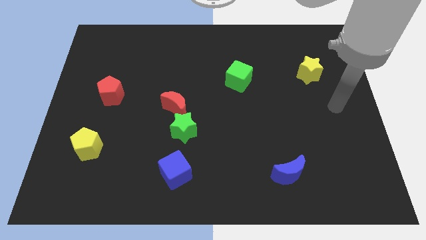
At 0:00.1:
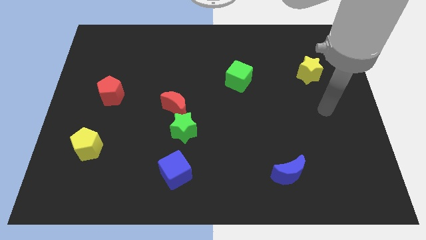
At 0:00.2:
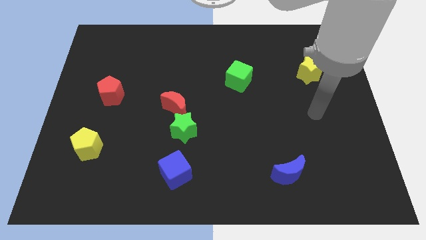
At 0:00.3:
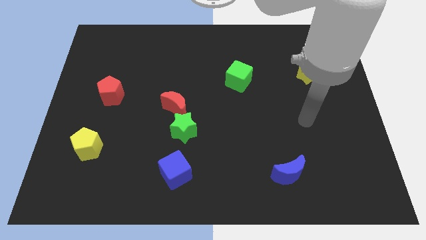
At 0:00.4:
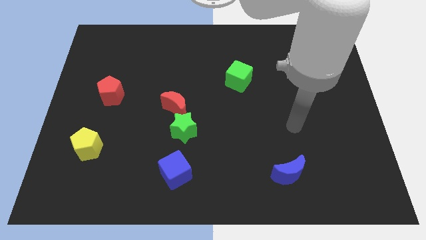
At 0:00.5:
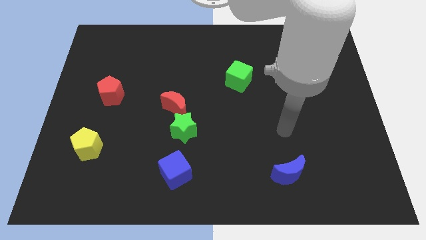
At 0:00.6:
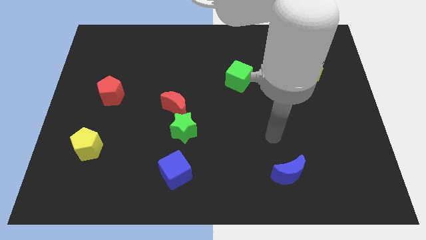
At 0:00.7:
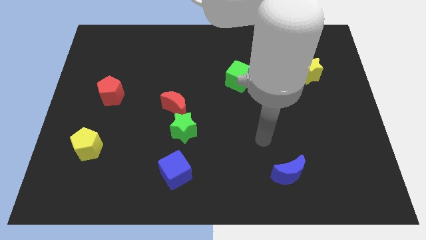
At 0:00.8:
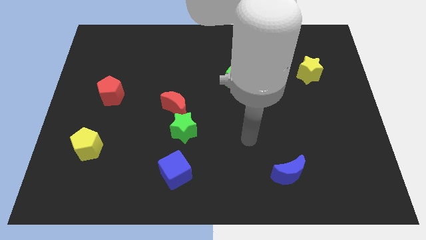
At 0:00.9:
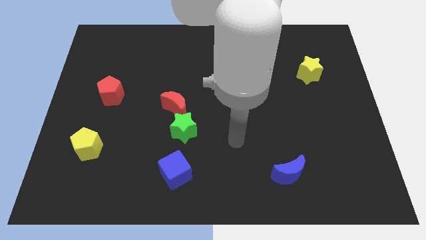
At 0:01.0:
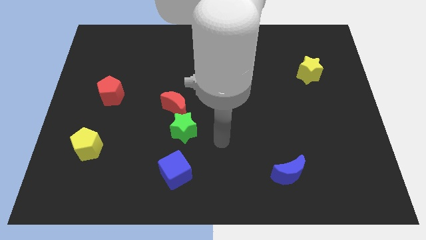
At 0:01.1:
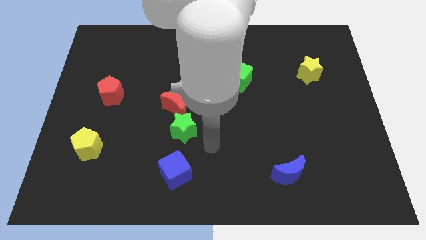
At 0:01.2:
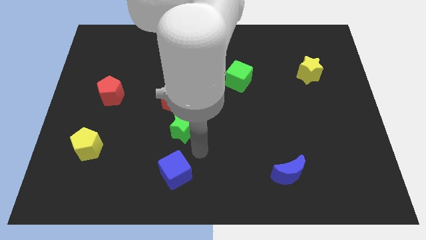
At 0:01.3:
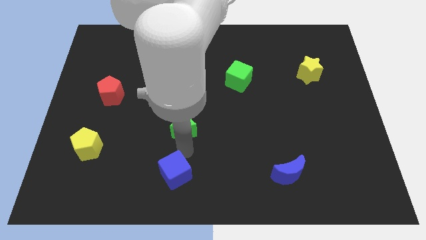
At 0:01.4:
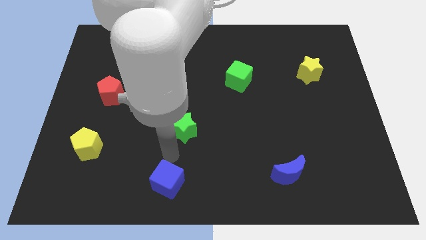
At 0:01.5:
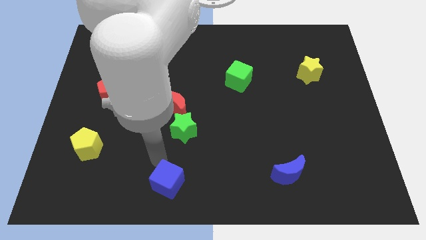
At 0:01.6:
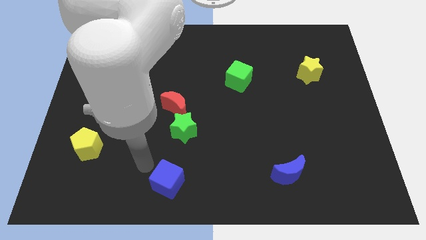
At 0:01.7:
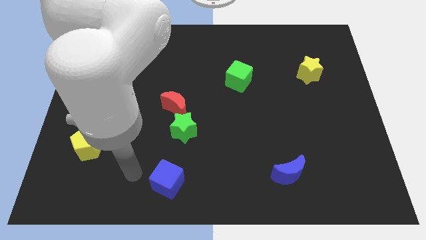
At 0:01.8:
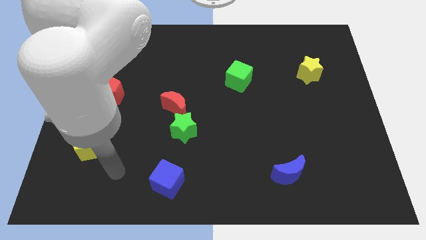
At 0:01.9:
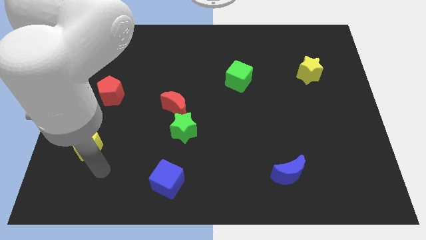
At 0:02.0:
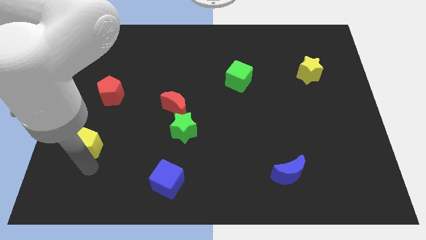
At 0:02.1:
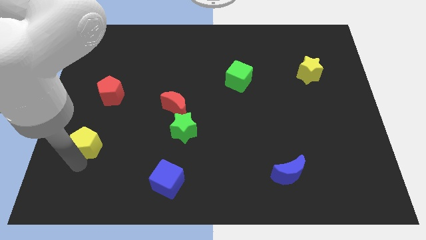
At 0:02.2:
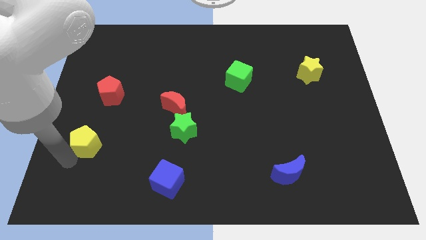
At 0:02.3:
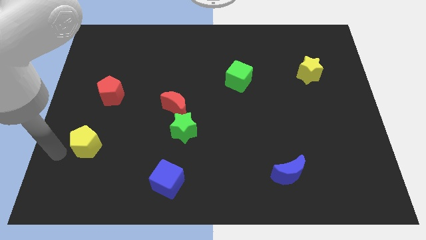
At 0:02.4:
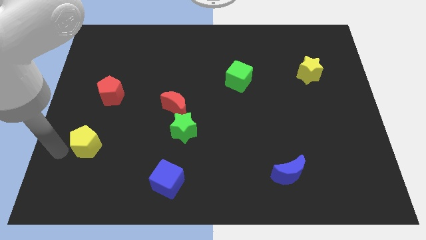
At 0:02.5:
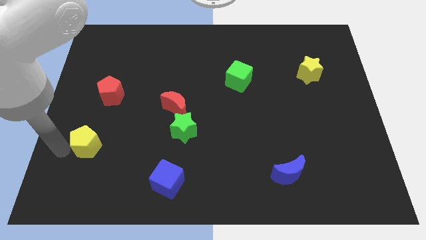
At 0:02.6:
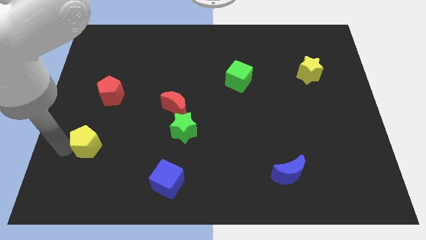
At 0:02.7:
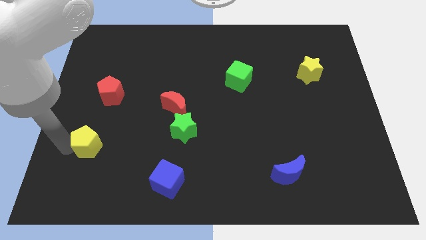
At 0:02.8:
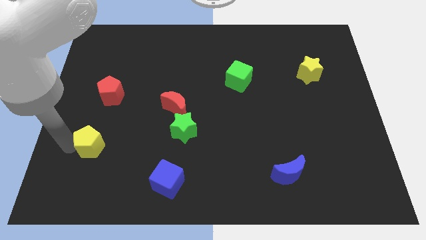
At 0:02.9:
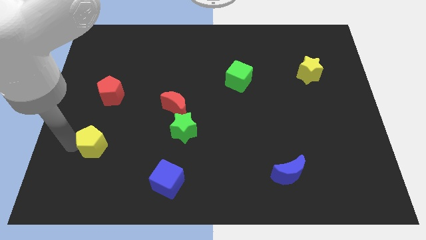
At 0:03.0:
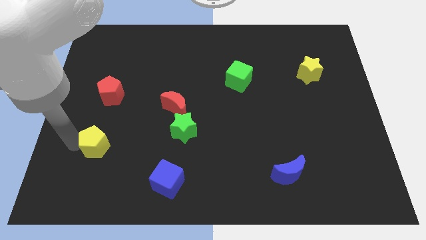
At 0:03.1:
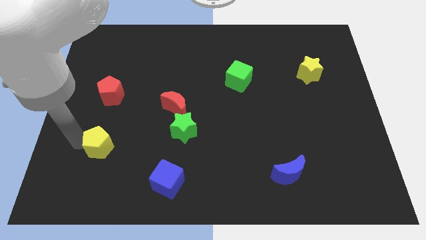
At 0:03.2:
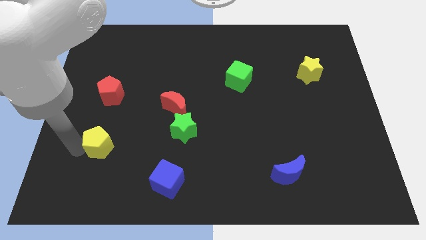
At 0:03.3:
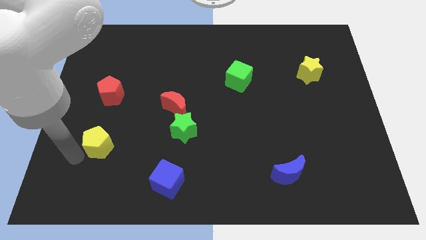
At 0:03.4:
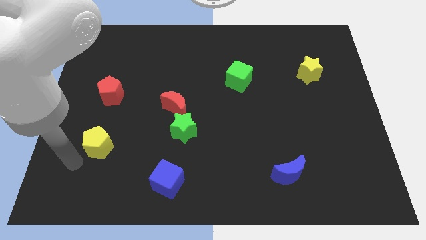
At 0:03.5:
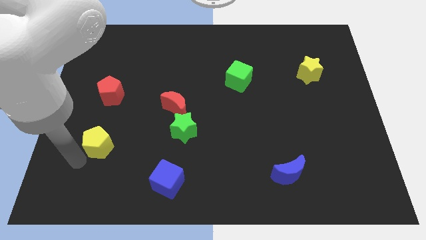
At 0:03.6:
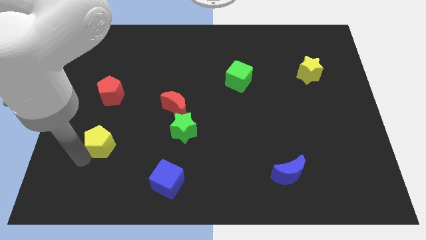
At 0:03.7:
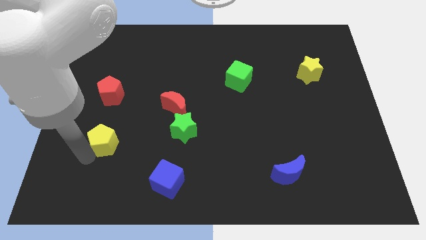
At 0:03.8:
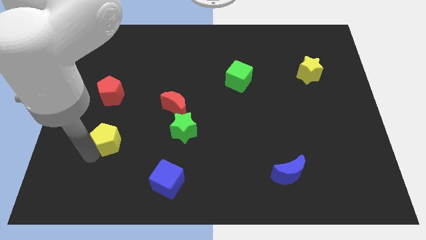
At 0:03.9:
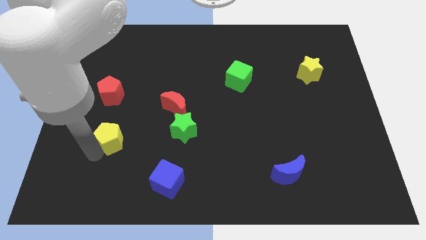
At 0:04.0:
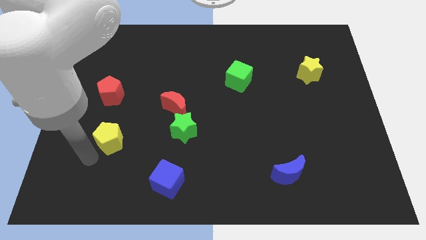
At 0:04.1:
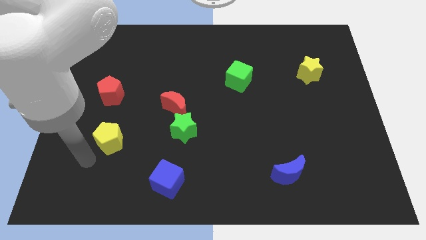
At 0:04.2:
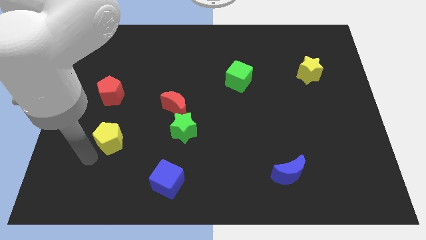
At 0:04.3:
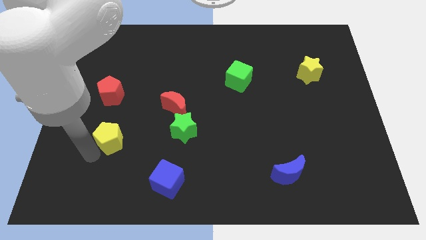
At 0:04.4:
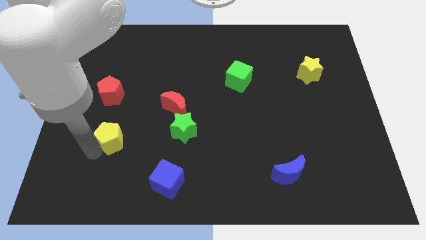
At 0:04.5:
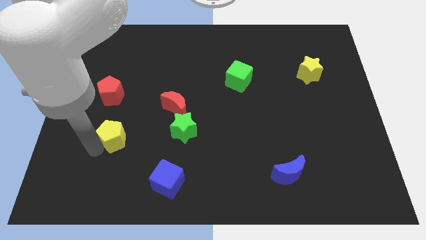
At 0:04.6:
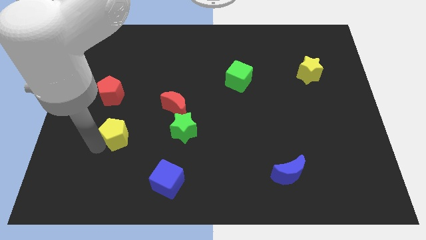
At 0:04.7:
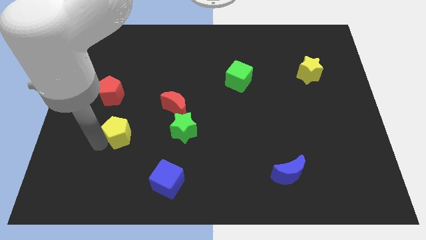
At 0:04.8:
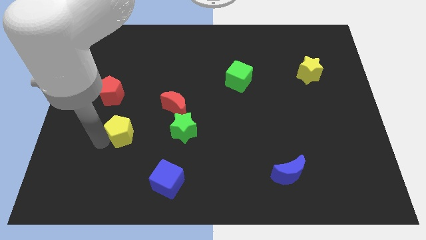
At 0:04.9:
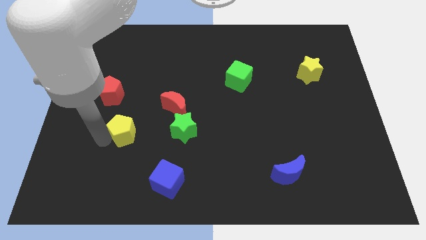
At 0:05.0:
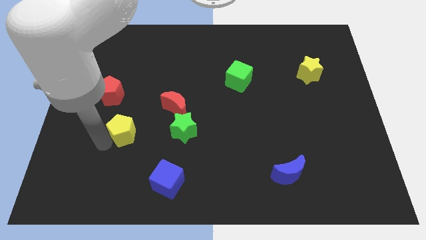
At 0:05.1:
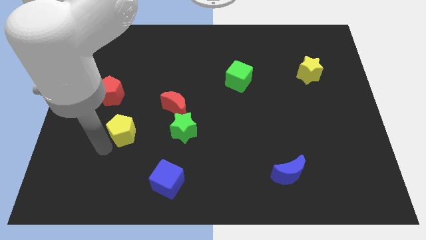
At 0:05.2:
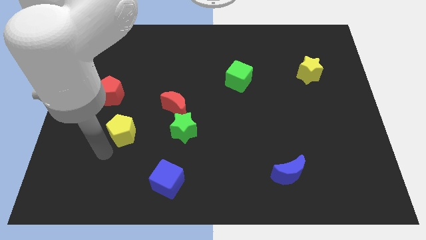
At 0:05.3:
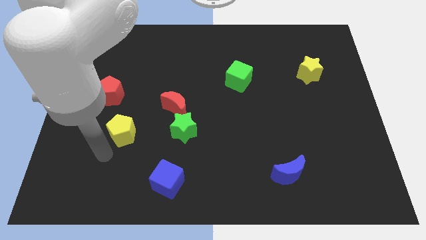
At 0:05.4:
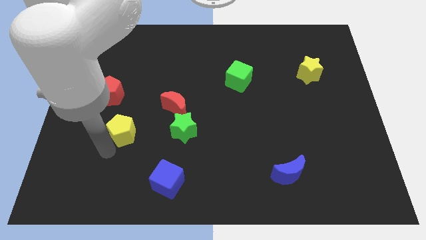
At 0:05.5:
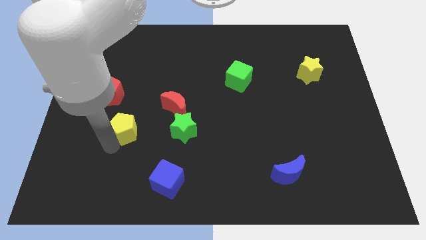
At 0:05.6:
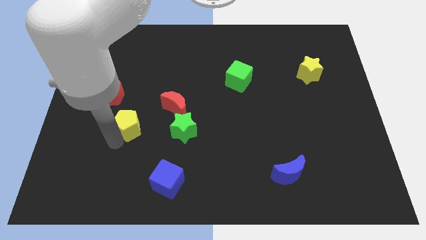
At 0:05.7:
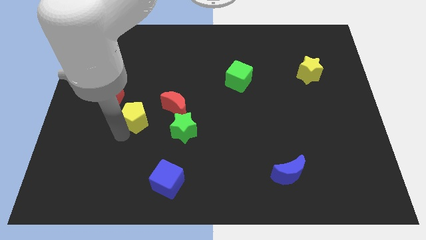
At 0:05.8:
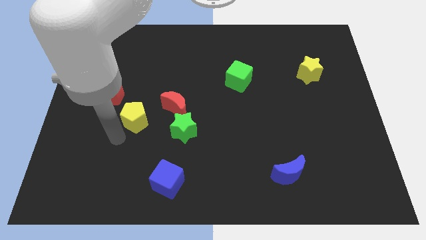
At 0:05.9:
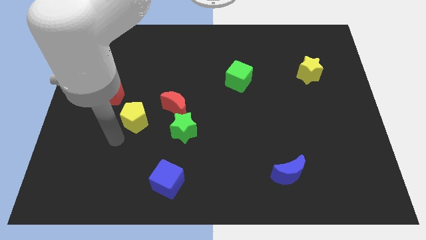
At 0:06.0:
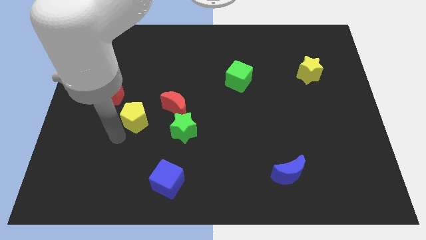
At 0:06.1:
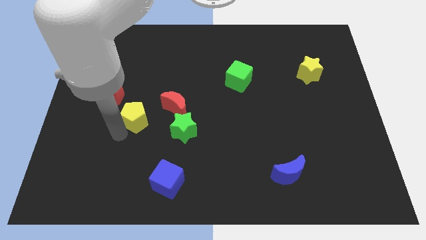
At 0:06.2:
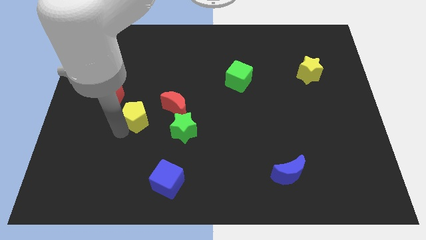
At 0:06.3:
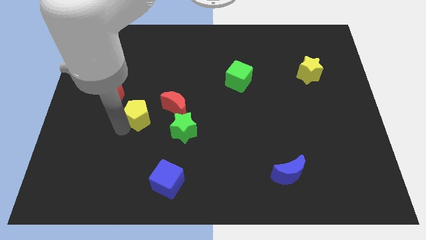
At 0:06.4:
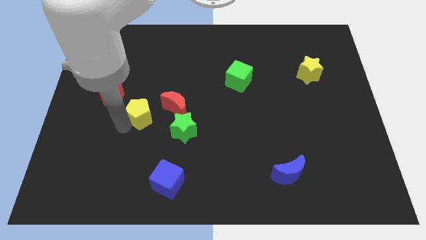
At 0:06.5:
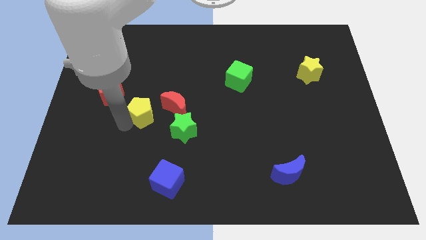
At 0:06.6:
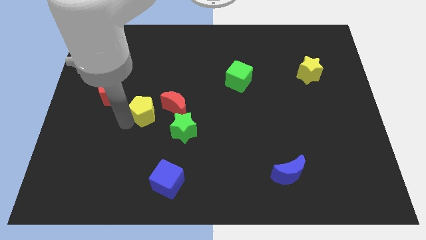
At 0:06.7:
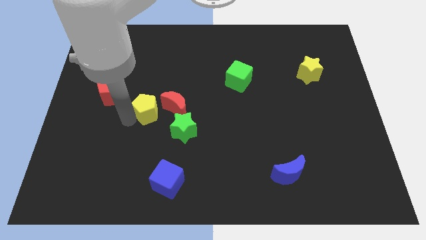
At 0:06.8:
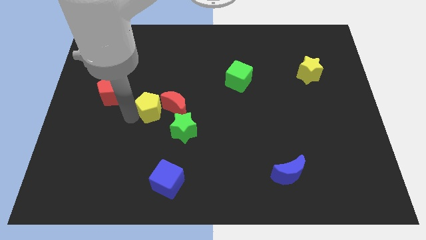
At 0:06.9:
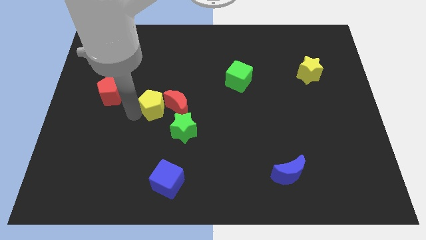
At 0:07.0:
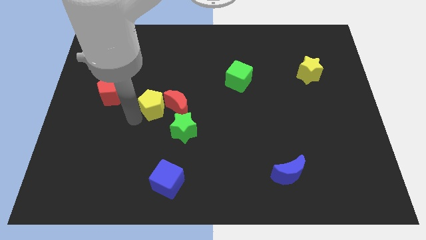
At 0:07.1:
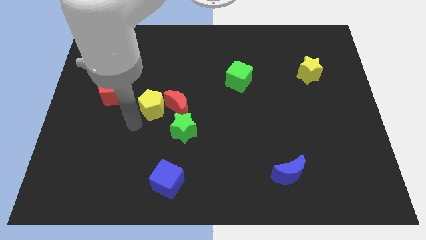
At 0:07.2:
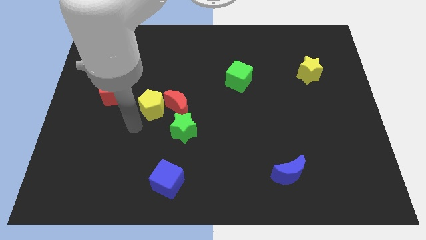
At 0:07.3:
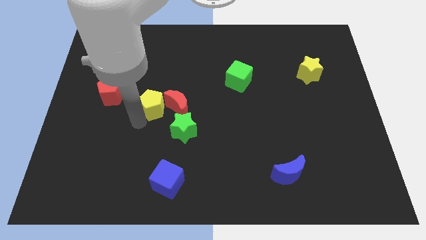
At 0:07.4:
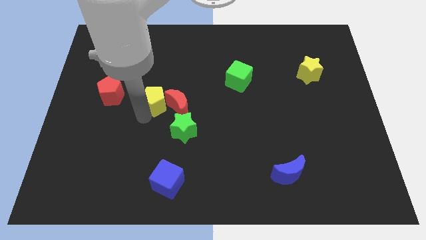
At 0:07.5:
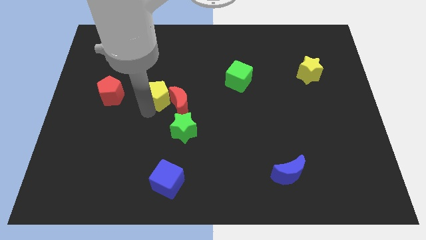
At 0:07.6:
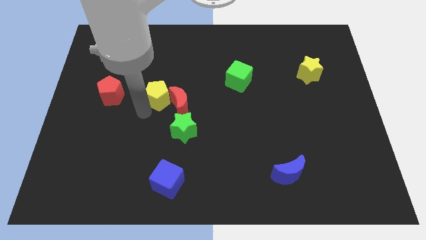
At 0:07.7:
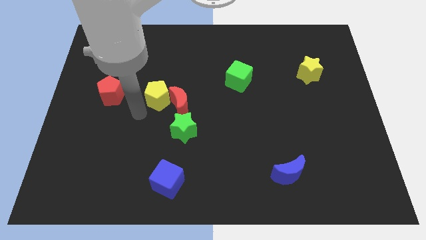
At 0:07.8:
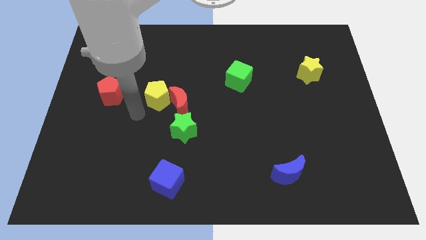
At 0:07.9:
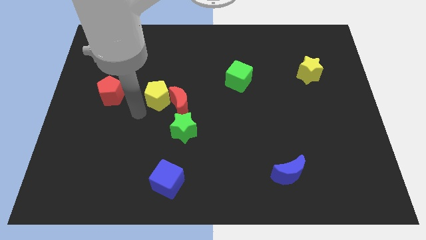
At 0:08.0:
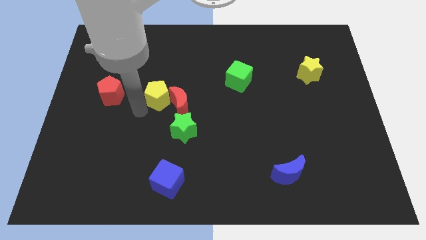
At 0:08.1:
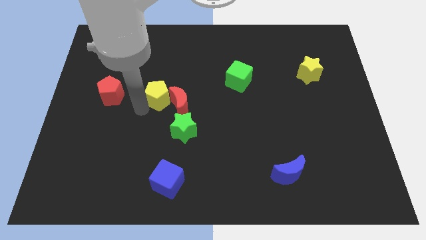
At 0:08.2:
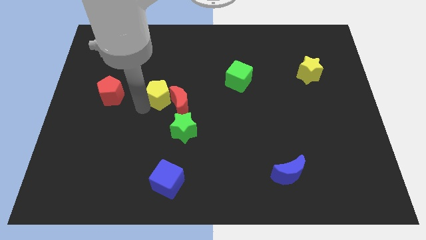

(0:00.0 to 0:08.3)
move the yellow pentagon diagonally up and right
